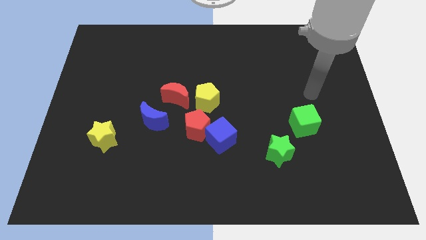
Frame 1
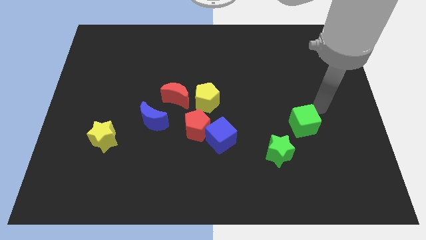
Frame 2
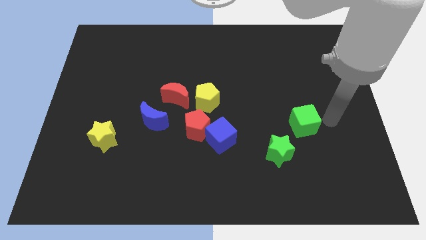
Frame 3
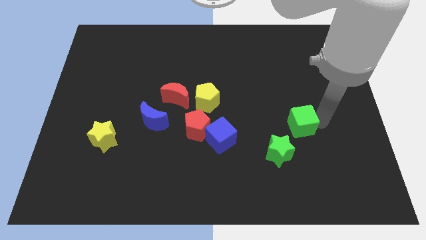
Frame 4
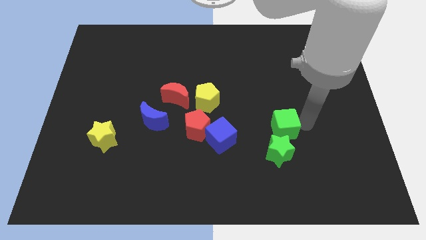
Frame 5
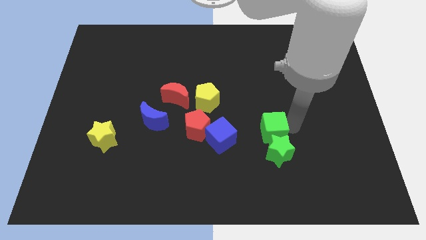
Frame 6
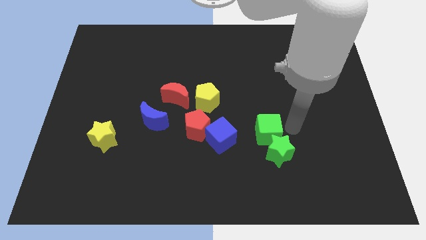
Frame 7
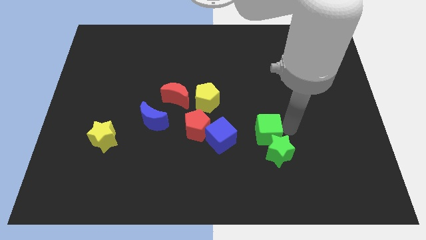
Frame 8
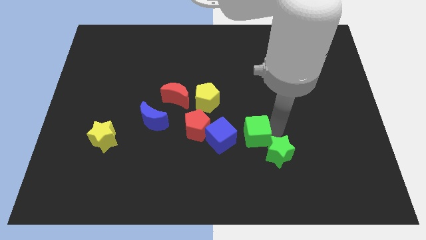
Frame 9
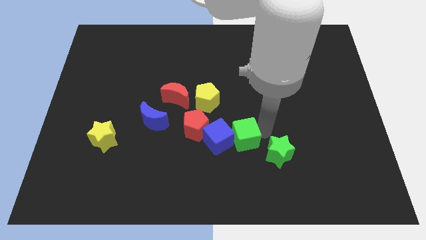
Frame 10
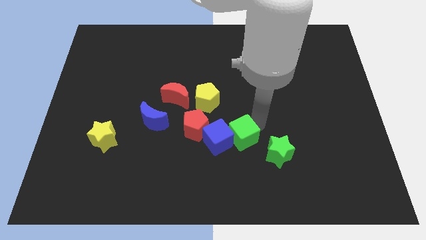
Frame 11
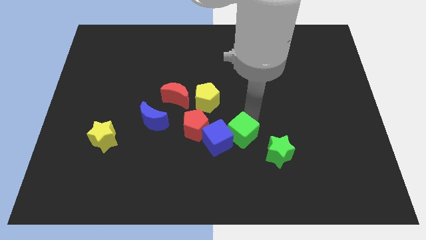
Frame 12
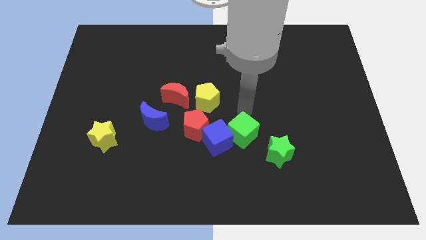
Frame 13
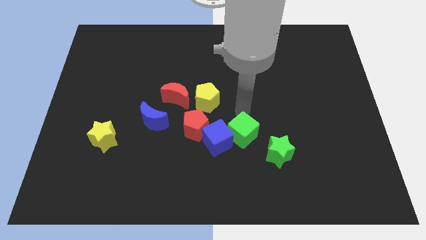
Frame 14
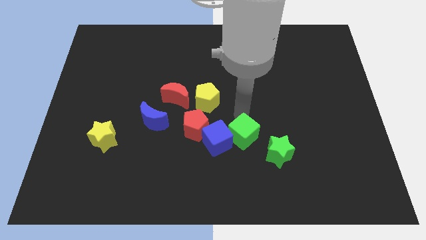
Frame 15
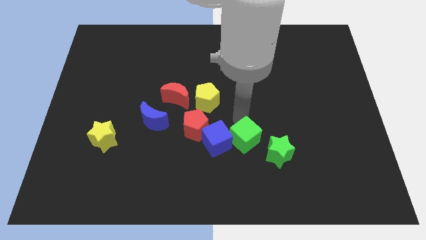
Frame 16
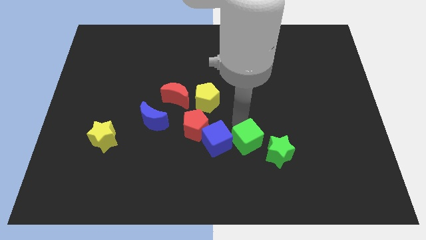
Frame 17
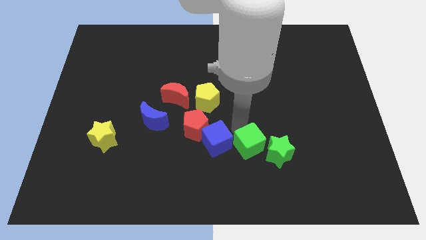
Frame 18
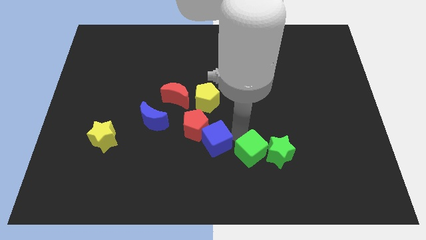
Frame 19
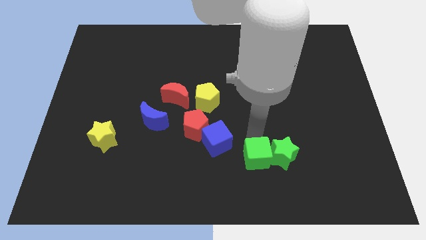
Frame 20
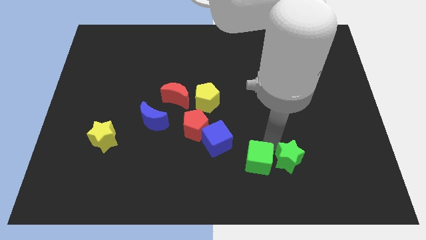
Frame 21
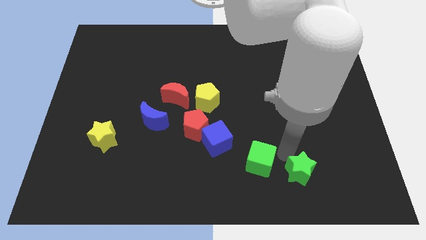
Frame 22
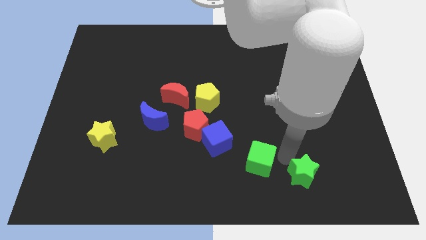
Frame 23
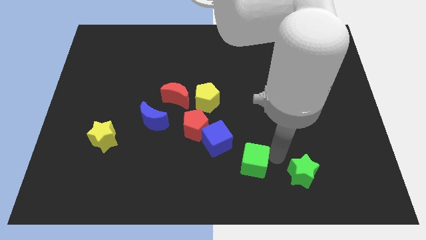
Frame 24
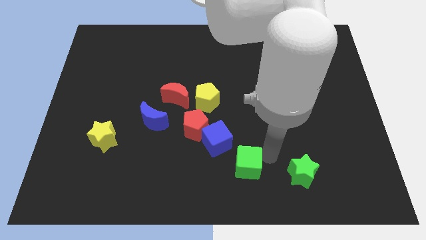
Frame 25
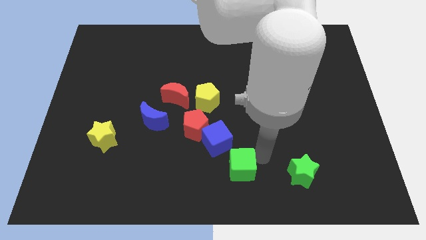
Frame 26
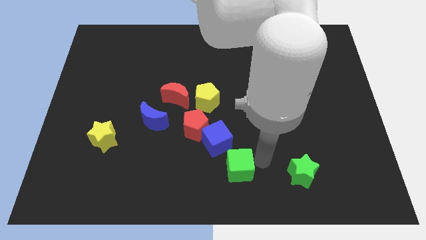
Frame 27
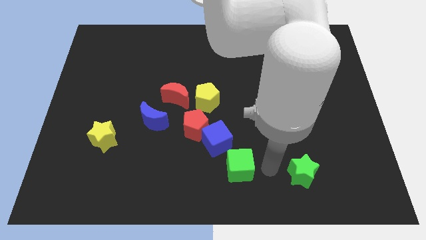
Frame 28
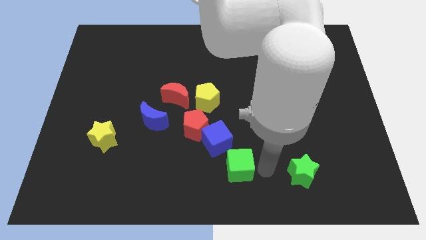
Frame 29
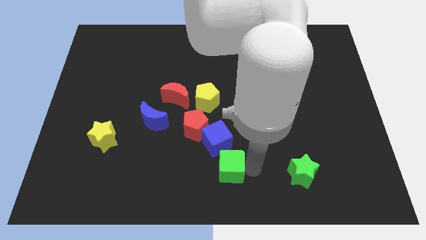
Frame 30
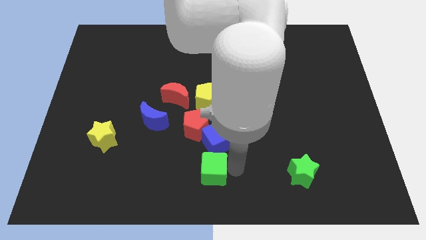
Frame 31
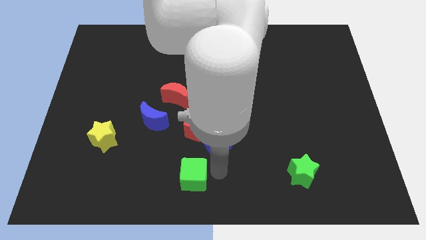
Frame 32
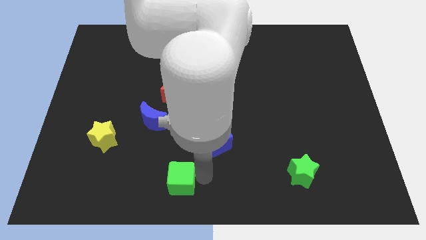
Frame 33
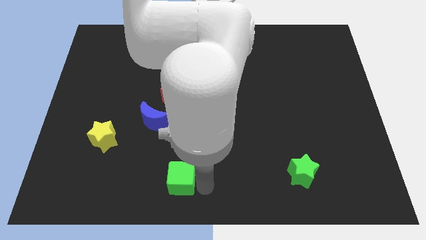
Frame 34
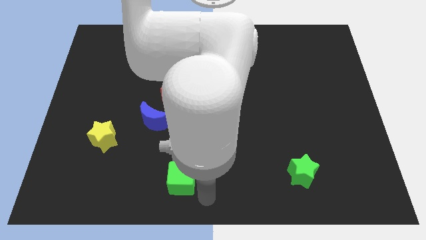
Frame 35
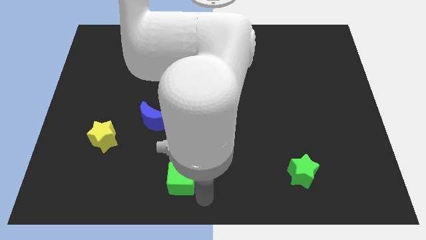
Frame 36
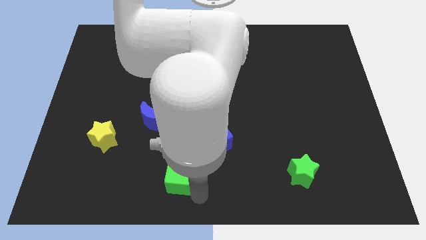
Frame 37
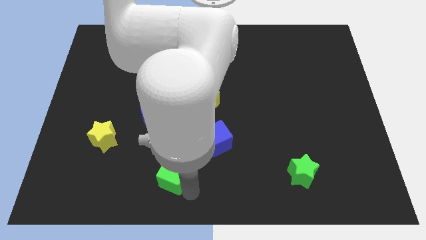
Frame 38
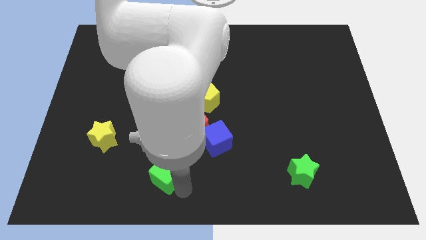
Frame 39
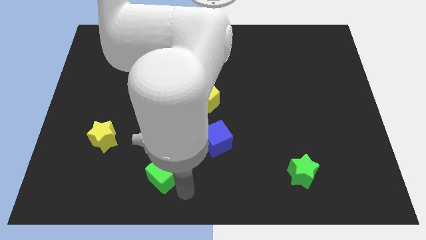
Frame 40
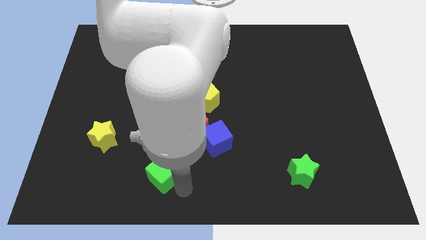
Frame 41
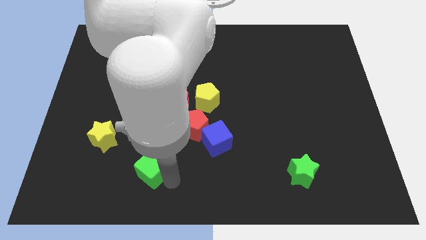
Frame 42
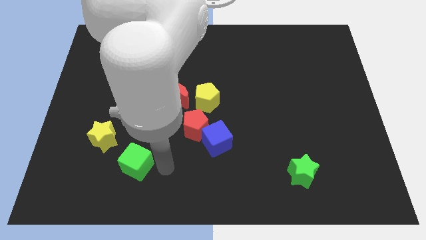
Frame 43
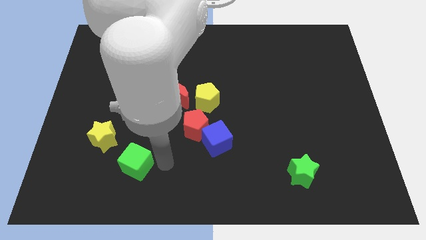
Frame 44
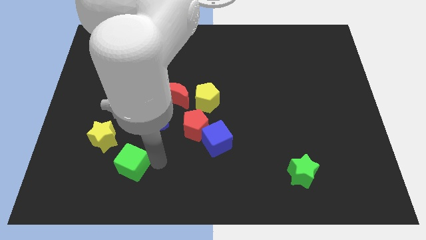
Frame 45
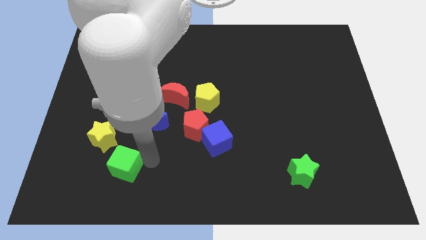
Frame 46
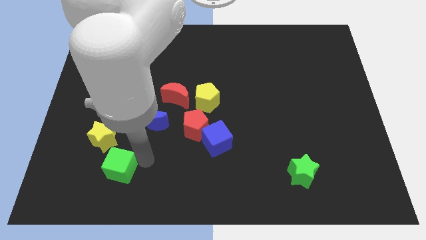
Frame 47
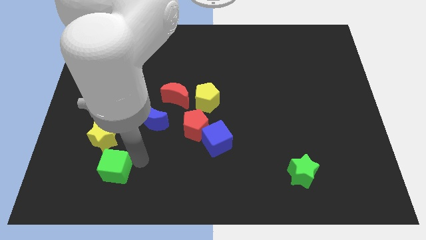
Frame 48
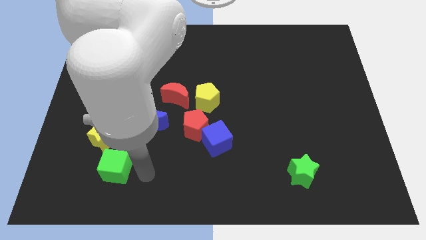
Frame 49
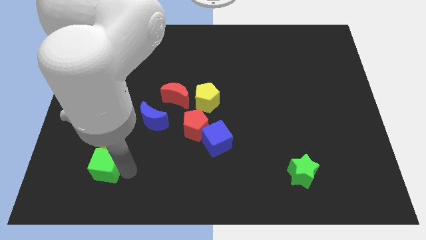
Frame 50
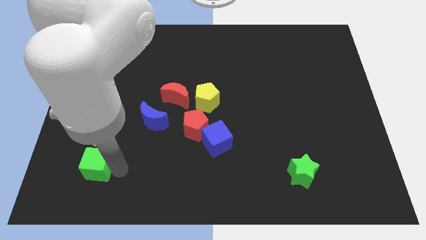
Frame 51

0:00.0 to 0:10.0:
slide the green cube to the bottom left of the yellow star
